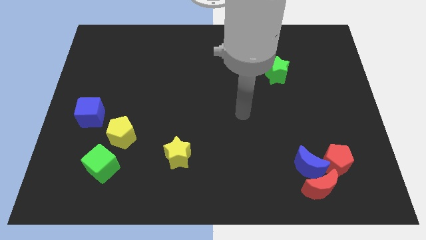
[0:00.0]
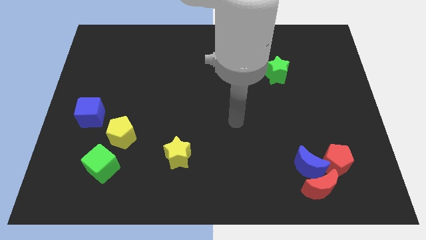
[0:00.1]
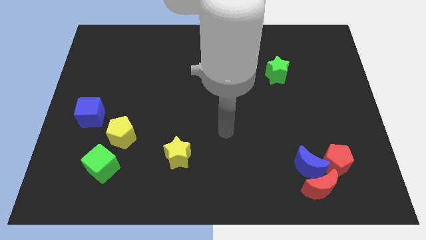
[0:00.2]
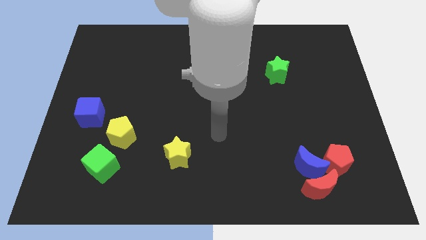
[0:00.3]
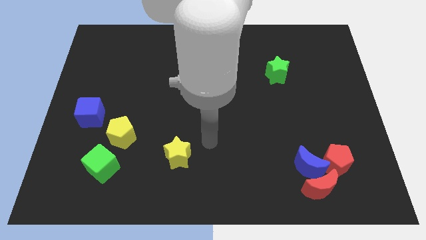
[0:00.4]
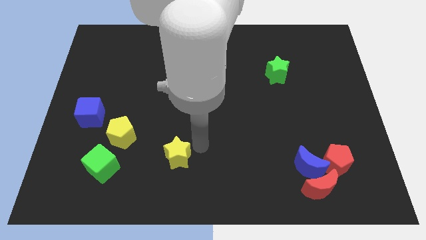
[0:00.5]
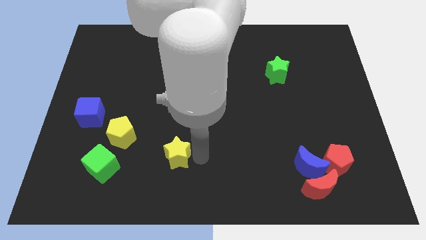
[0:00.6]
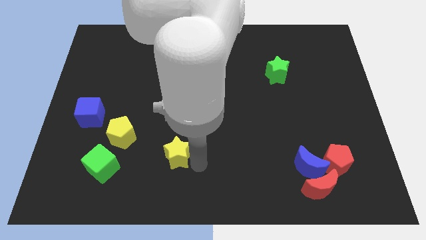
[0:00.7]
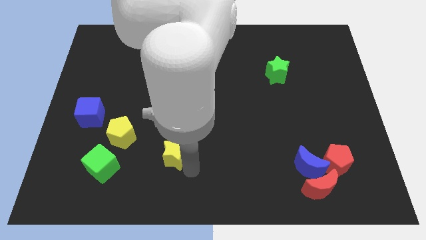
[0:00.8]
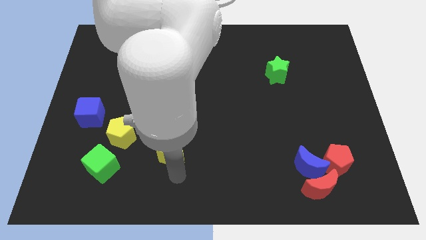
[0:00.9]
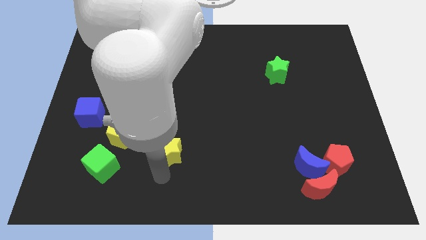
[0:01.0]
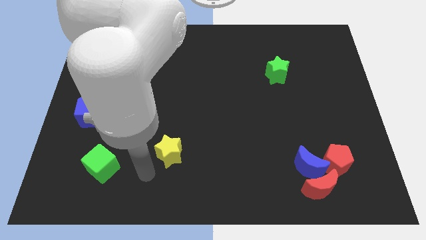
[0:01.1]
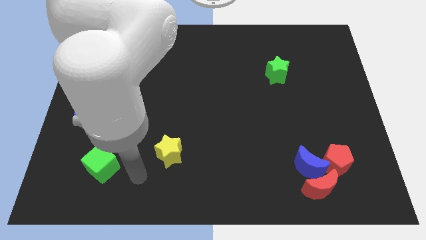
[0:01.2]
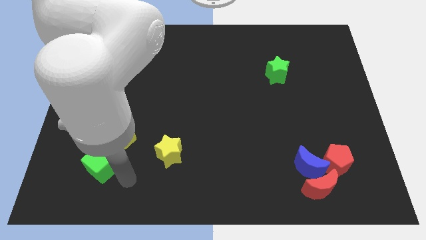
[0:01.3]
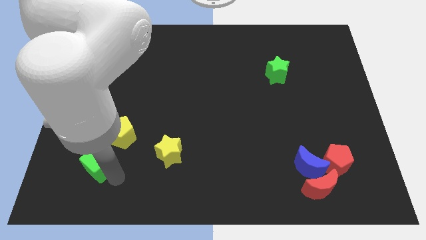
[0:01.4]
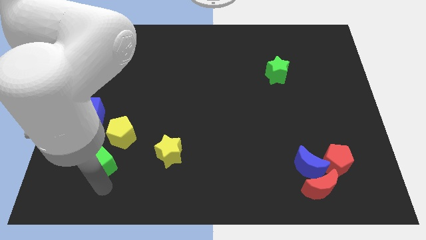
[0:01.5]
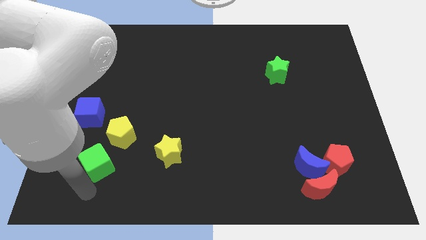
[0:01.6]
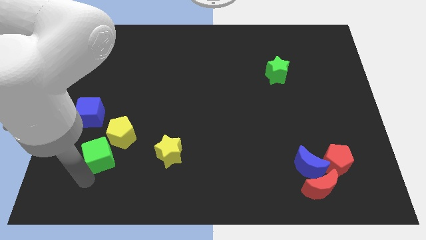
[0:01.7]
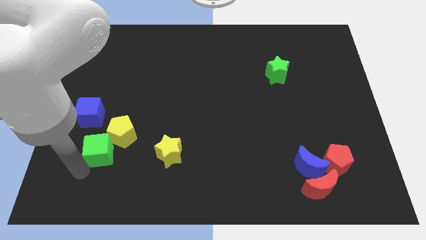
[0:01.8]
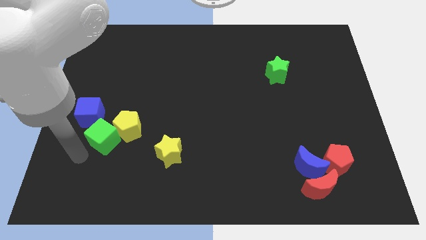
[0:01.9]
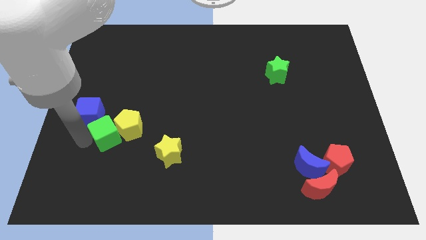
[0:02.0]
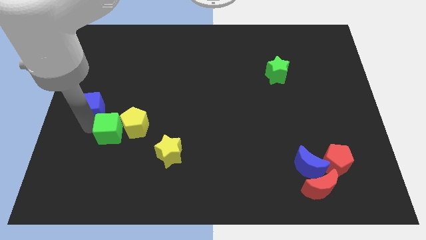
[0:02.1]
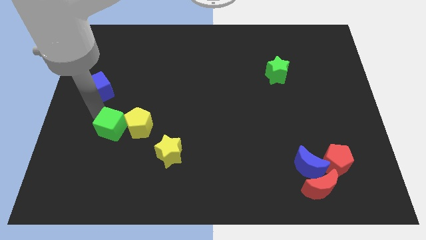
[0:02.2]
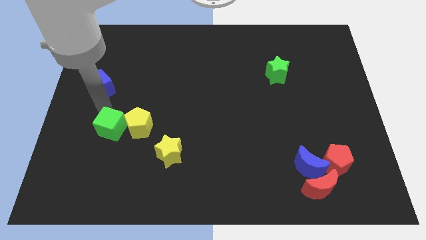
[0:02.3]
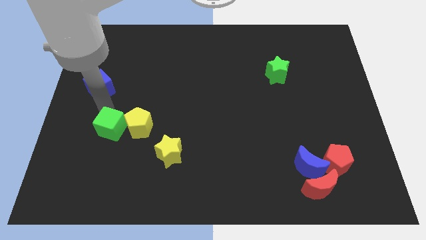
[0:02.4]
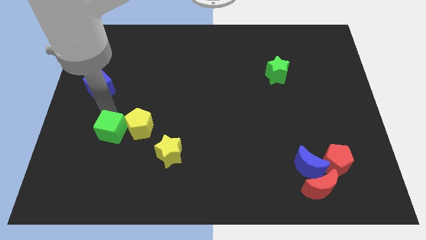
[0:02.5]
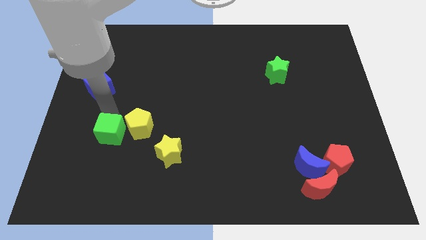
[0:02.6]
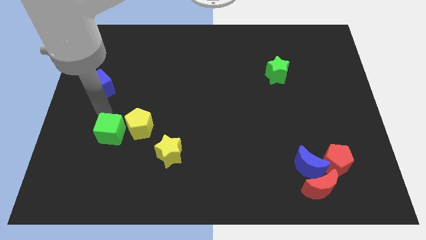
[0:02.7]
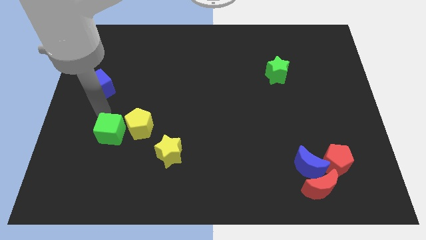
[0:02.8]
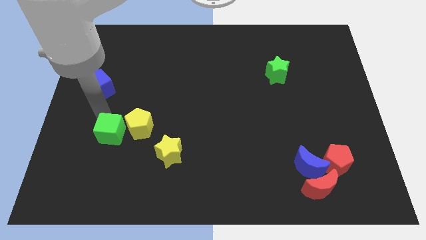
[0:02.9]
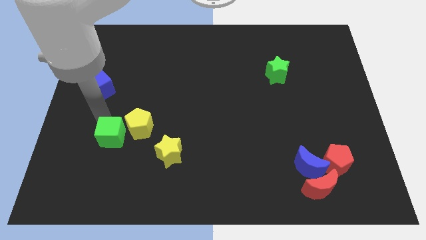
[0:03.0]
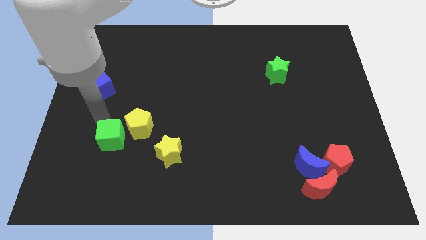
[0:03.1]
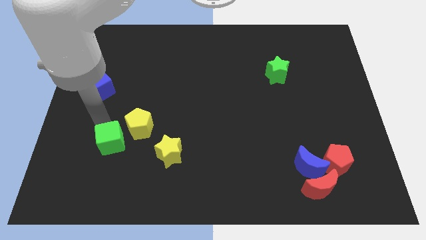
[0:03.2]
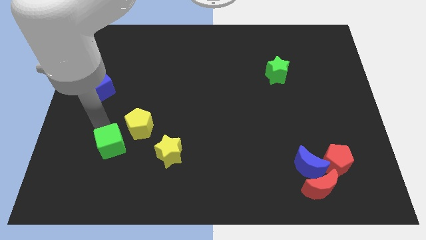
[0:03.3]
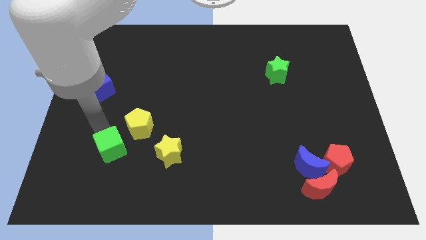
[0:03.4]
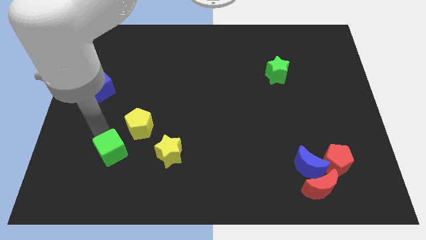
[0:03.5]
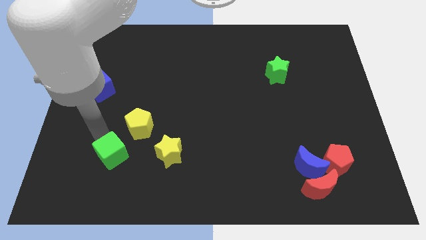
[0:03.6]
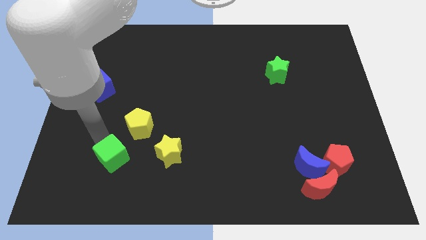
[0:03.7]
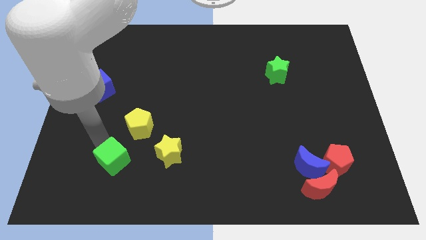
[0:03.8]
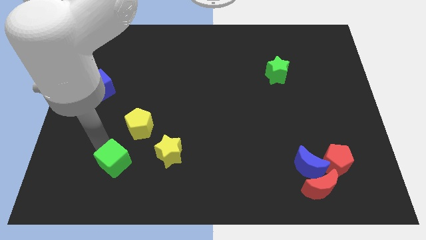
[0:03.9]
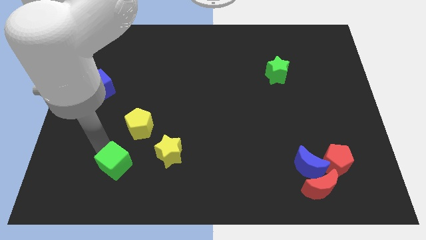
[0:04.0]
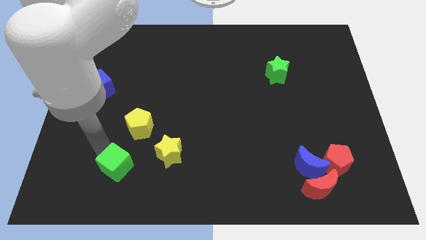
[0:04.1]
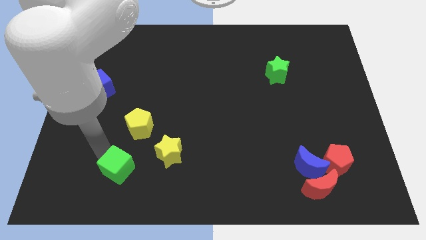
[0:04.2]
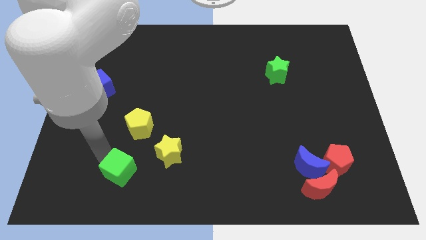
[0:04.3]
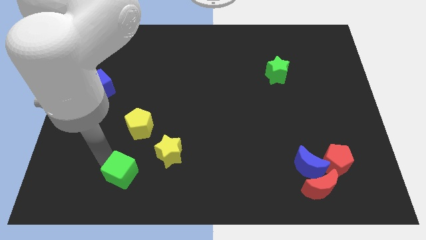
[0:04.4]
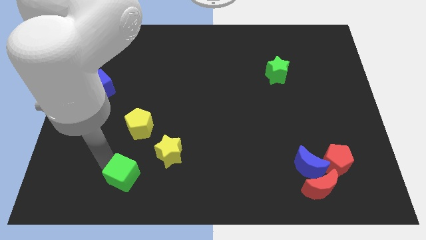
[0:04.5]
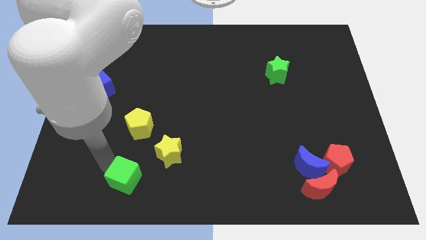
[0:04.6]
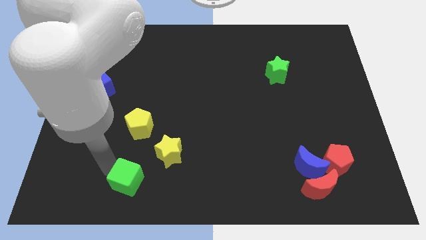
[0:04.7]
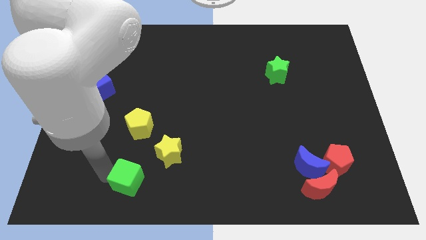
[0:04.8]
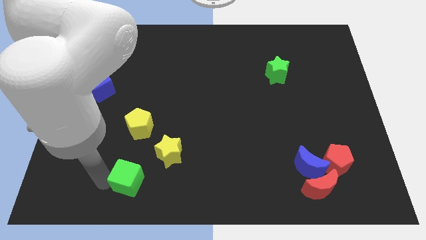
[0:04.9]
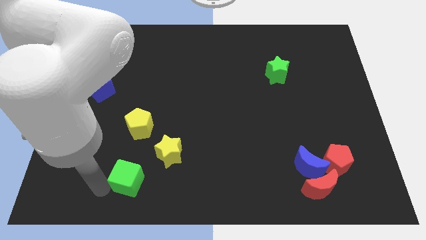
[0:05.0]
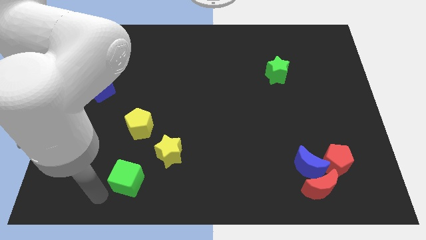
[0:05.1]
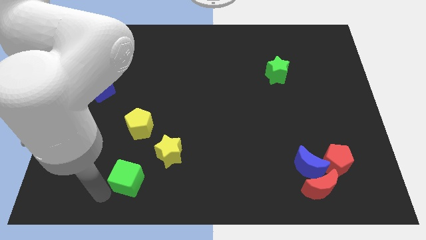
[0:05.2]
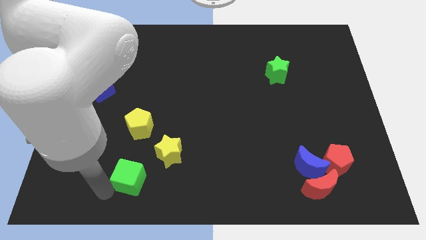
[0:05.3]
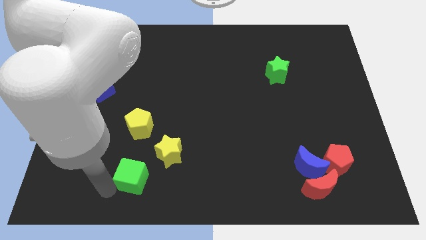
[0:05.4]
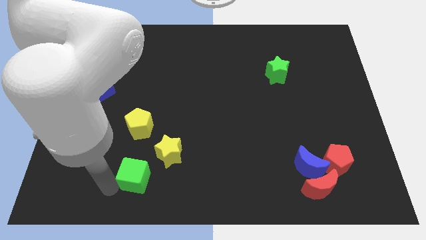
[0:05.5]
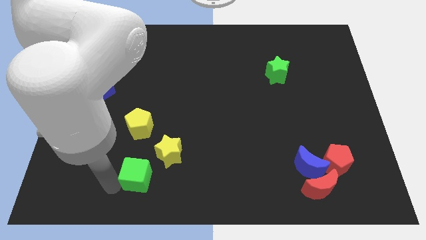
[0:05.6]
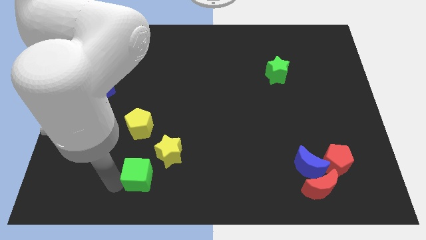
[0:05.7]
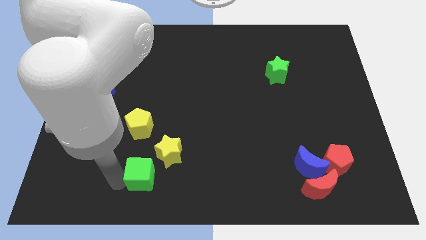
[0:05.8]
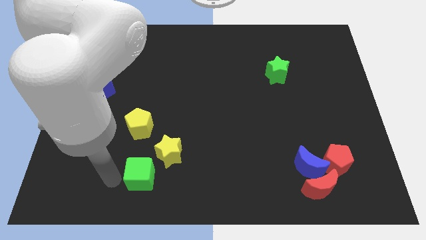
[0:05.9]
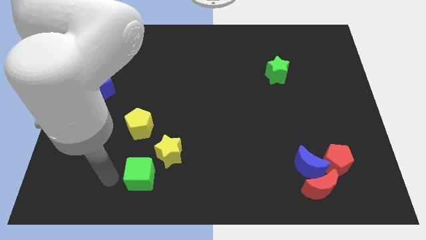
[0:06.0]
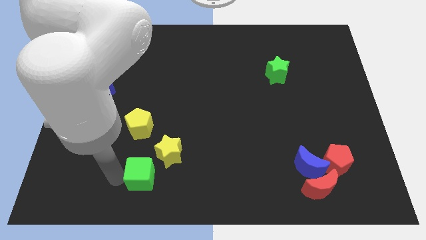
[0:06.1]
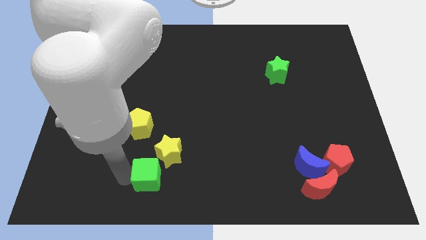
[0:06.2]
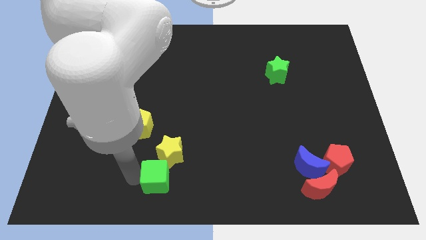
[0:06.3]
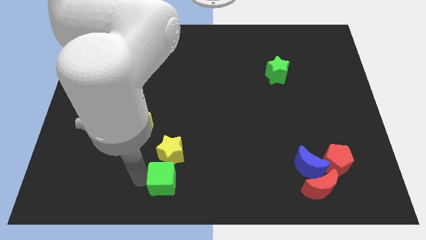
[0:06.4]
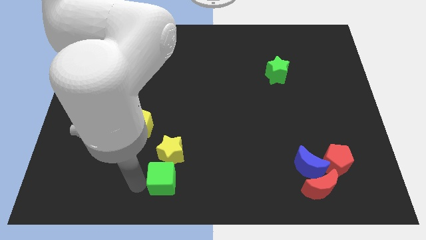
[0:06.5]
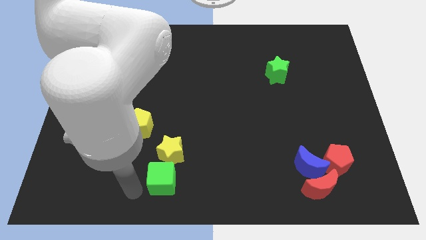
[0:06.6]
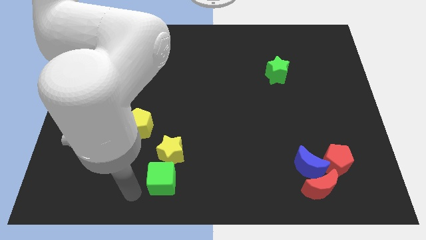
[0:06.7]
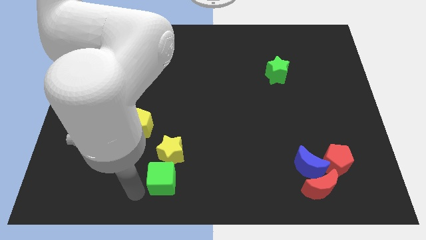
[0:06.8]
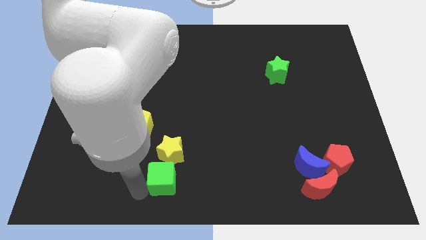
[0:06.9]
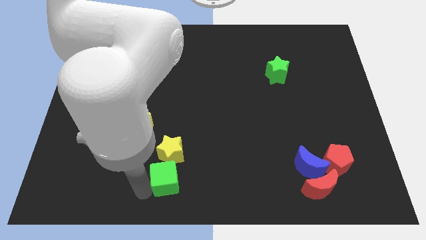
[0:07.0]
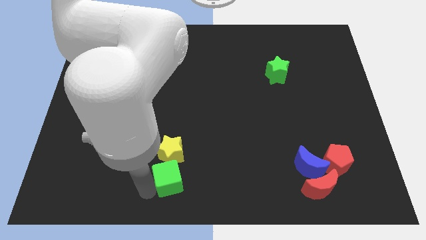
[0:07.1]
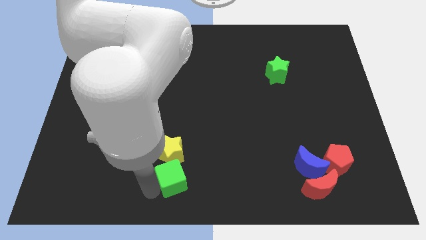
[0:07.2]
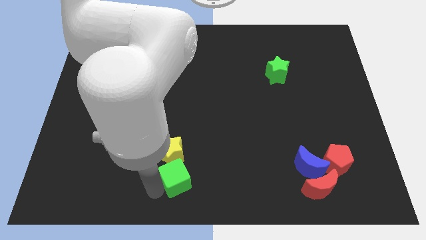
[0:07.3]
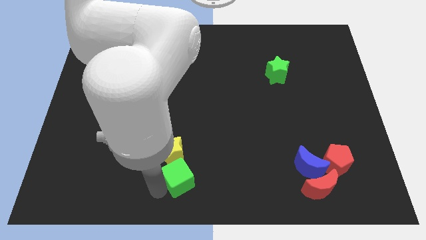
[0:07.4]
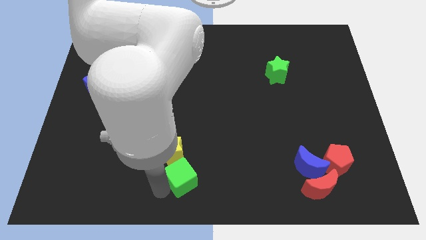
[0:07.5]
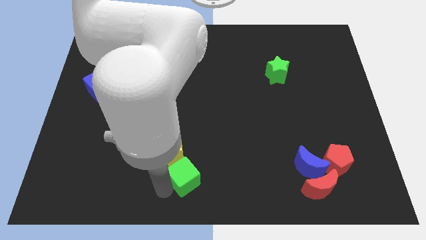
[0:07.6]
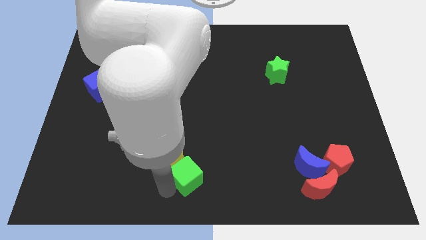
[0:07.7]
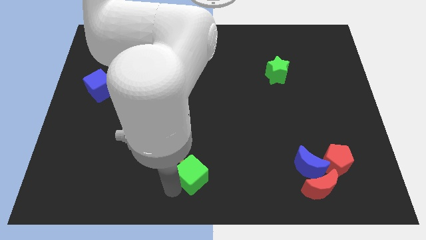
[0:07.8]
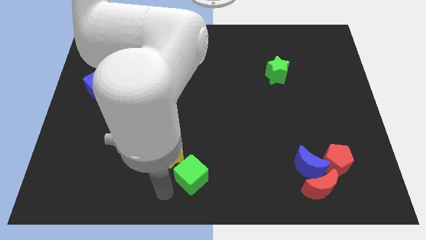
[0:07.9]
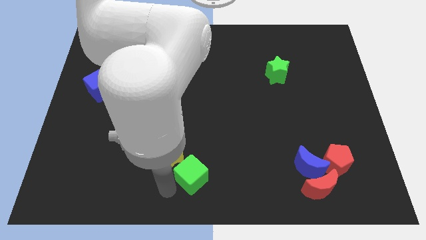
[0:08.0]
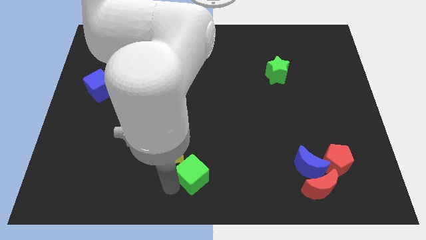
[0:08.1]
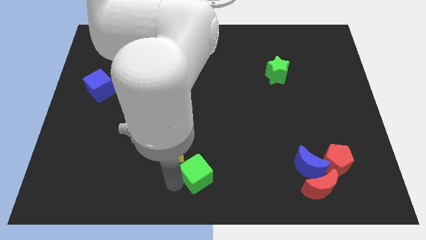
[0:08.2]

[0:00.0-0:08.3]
push the green cube to the right
